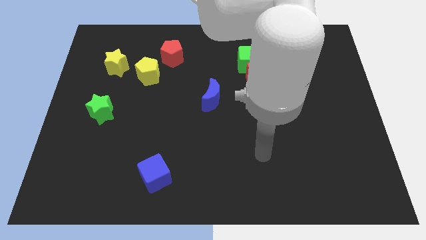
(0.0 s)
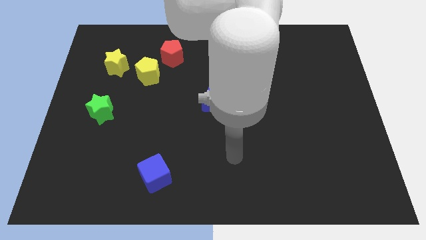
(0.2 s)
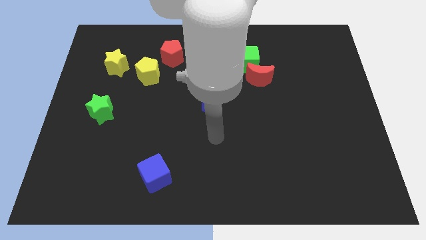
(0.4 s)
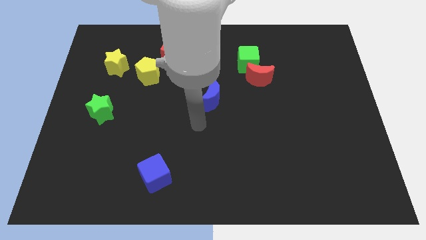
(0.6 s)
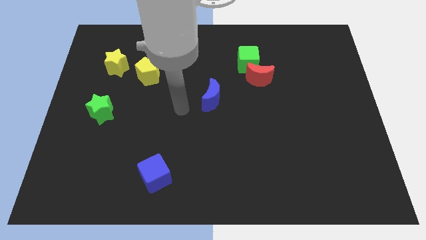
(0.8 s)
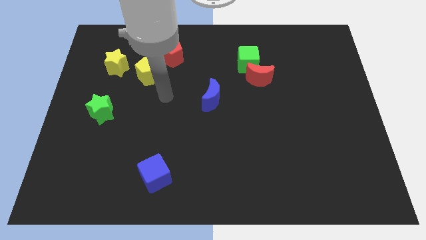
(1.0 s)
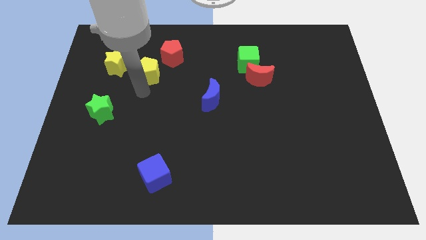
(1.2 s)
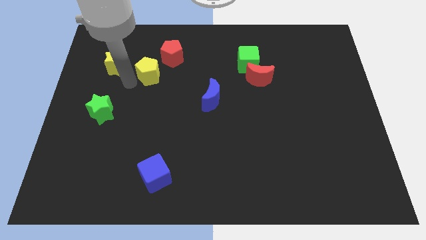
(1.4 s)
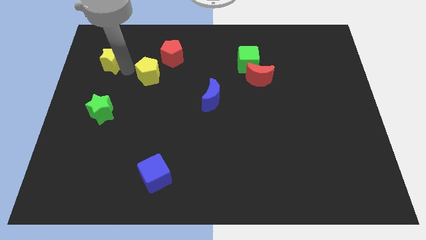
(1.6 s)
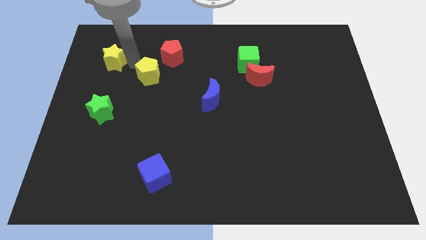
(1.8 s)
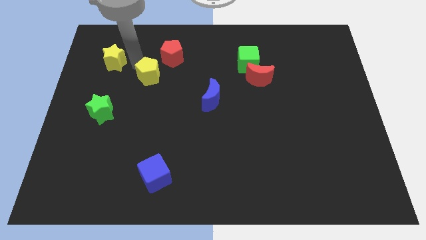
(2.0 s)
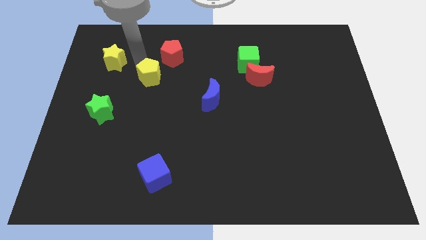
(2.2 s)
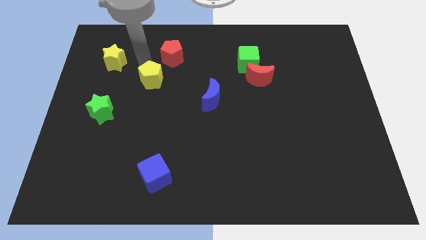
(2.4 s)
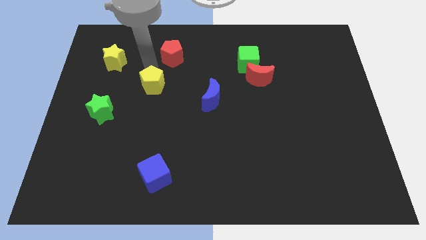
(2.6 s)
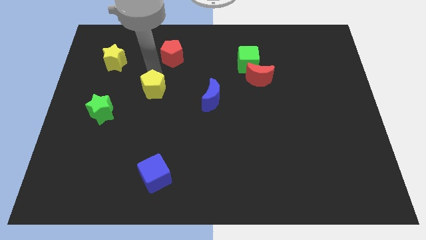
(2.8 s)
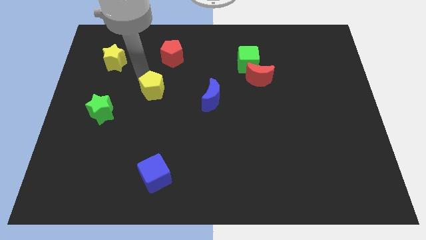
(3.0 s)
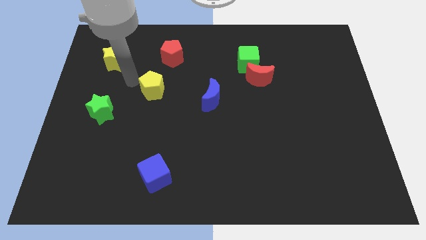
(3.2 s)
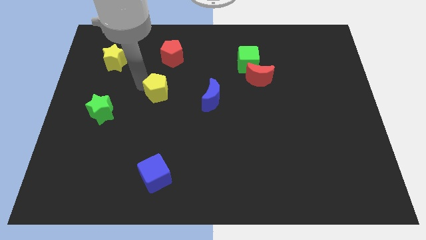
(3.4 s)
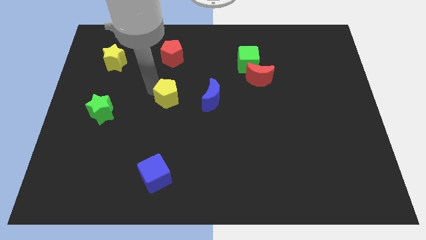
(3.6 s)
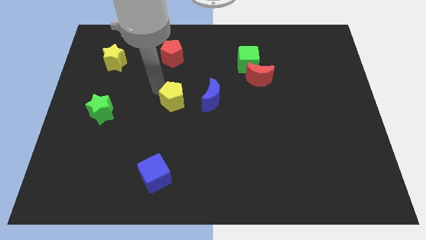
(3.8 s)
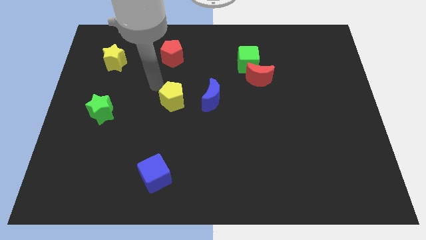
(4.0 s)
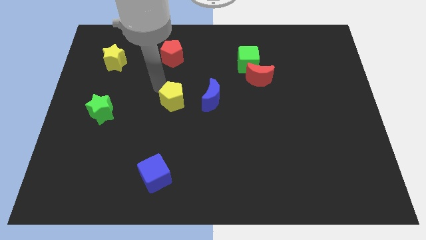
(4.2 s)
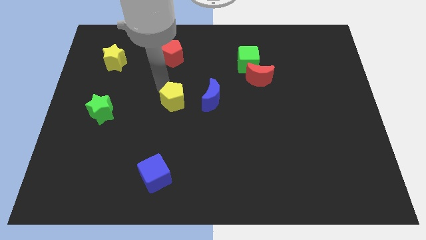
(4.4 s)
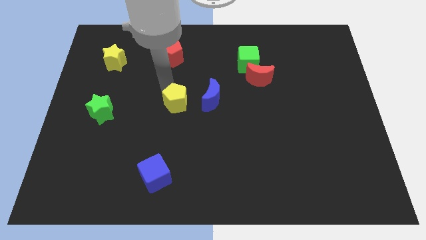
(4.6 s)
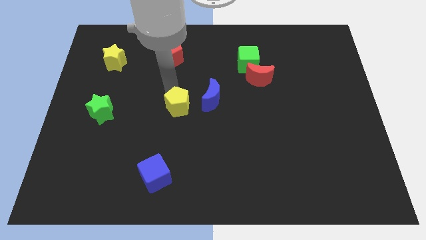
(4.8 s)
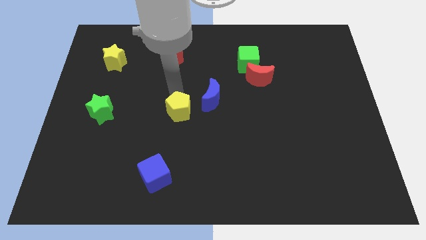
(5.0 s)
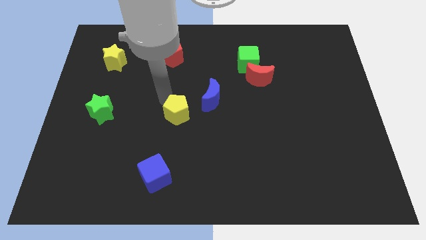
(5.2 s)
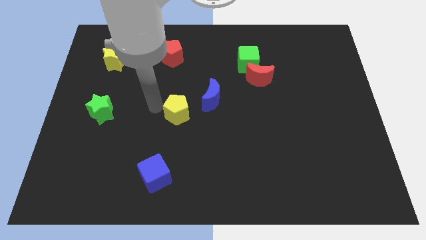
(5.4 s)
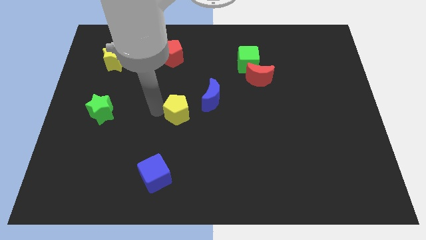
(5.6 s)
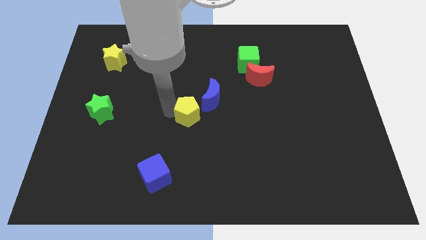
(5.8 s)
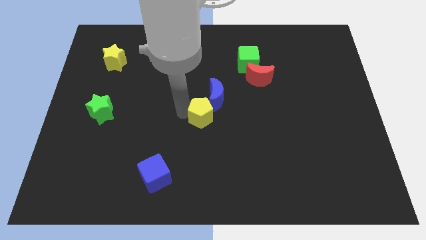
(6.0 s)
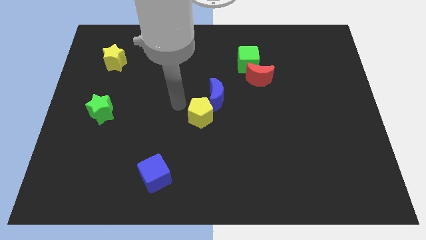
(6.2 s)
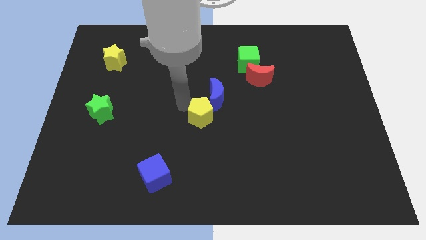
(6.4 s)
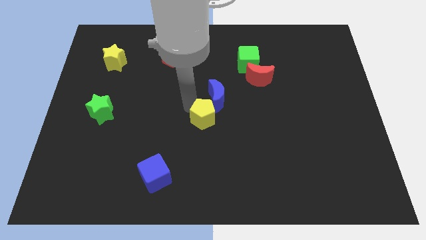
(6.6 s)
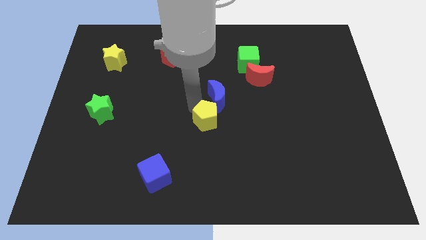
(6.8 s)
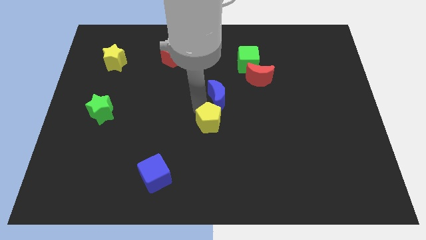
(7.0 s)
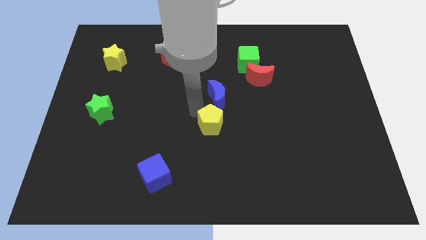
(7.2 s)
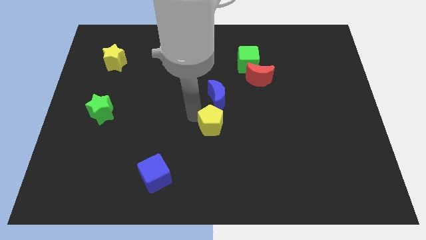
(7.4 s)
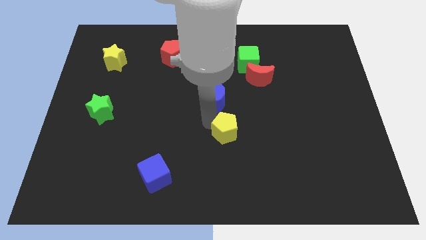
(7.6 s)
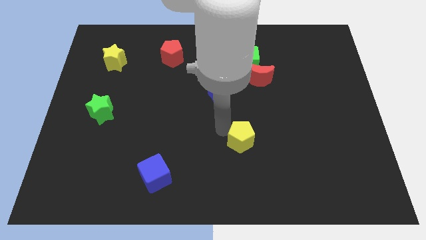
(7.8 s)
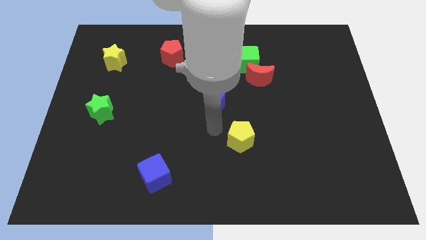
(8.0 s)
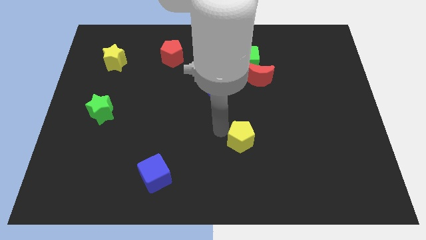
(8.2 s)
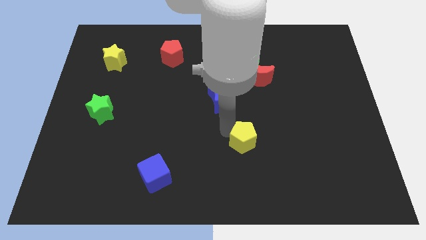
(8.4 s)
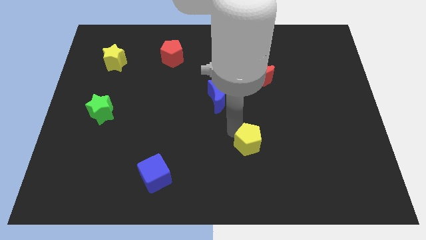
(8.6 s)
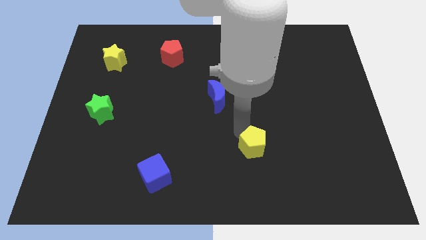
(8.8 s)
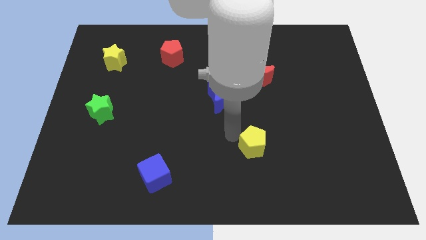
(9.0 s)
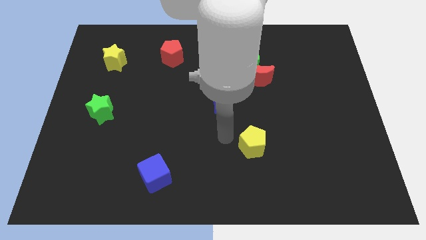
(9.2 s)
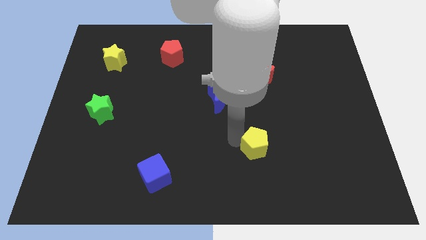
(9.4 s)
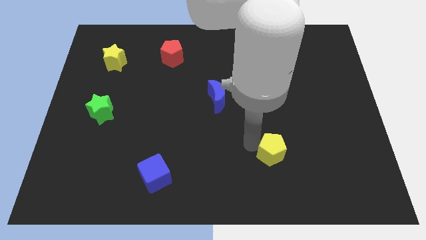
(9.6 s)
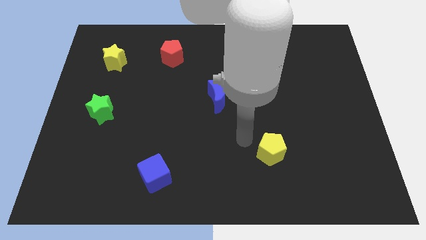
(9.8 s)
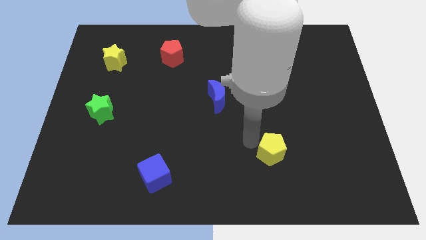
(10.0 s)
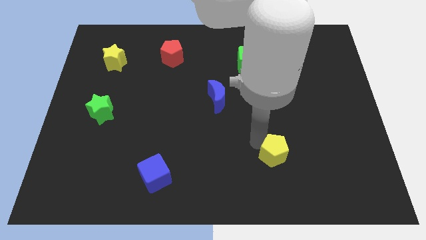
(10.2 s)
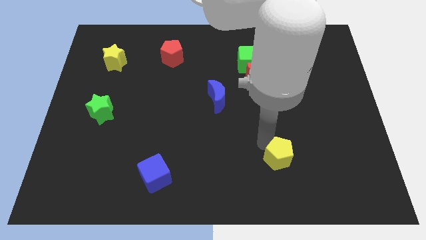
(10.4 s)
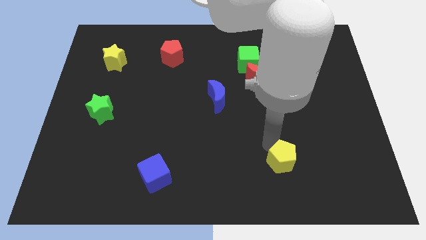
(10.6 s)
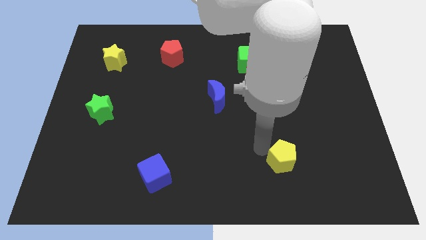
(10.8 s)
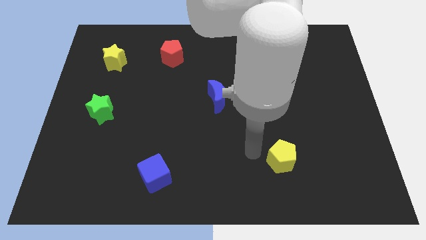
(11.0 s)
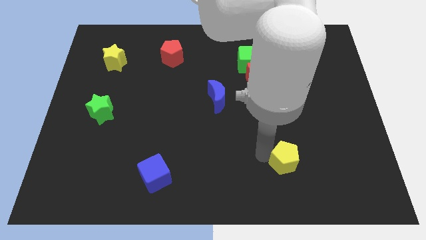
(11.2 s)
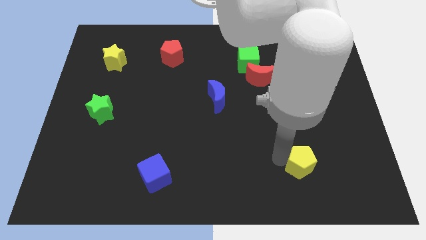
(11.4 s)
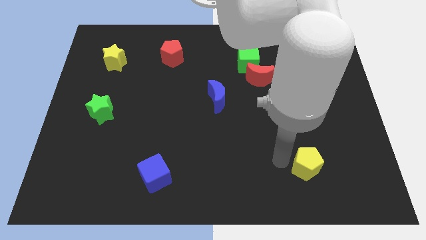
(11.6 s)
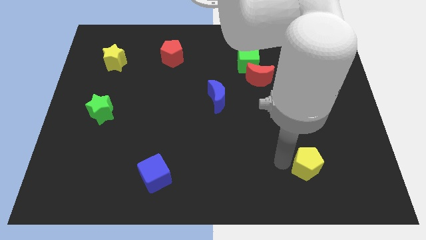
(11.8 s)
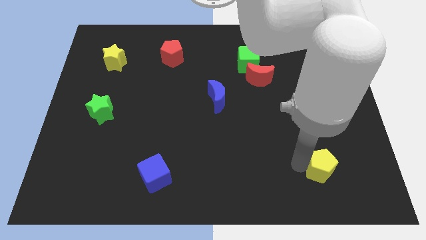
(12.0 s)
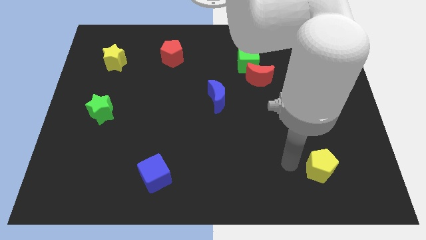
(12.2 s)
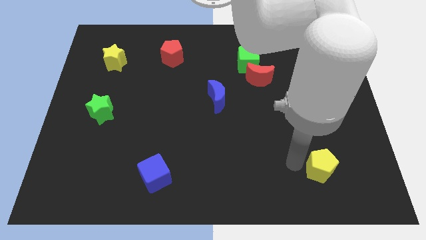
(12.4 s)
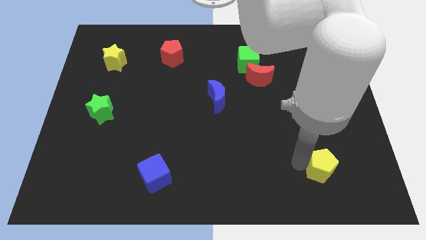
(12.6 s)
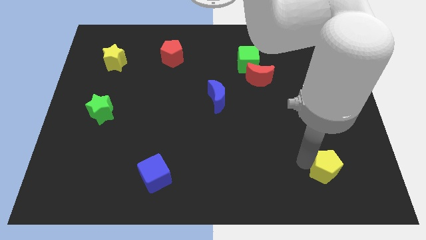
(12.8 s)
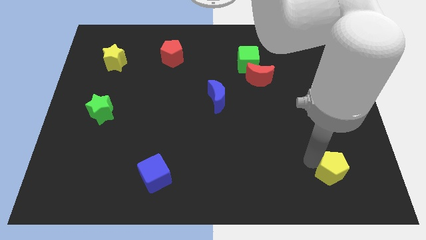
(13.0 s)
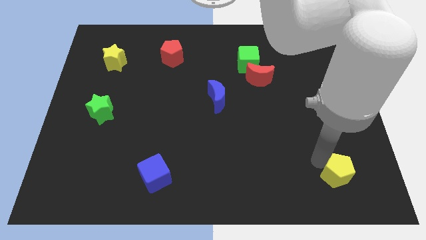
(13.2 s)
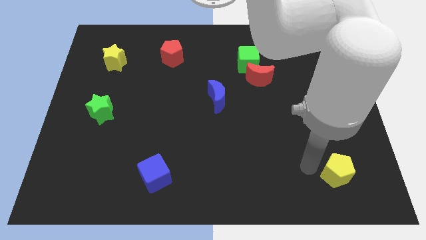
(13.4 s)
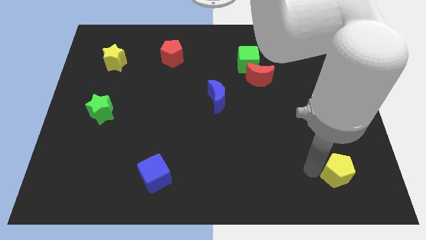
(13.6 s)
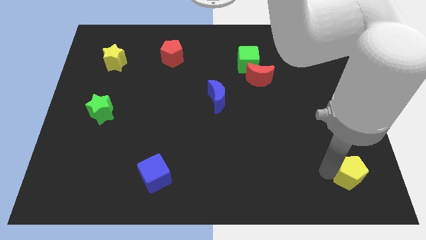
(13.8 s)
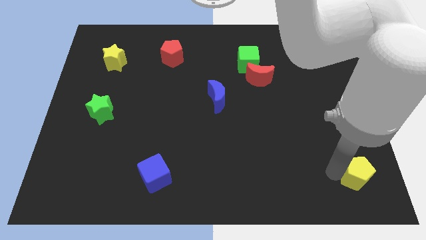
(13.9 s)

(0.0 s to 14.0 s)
put the yellow pentagon to the bottom right
